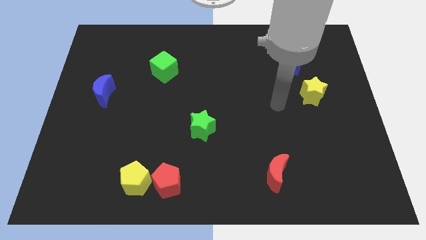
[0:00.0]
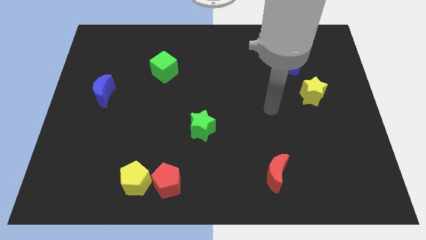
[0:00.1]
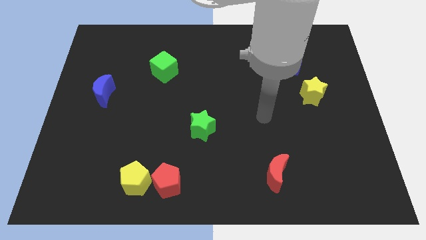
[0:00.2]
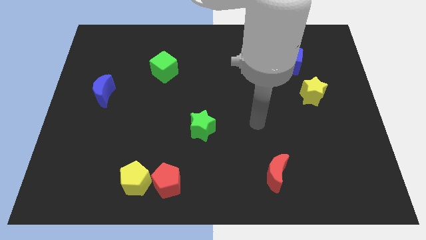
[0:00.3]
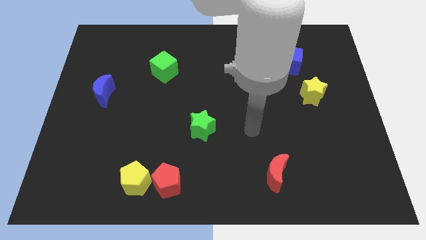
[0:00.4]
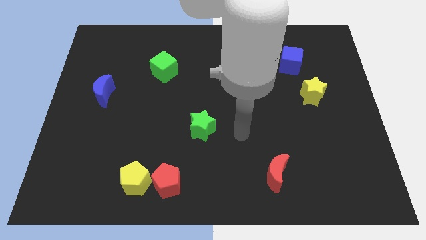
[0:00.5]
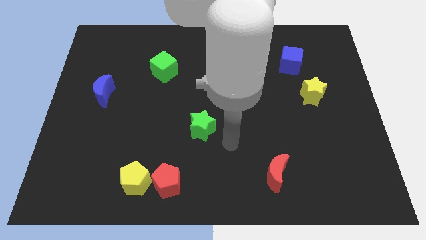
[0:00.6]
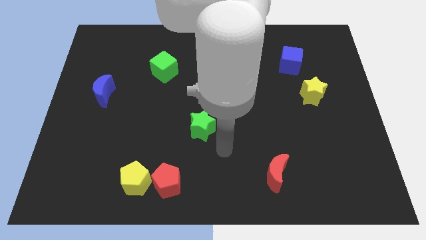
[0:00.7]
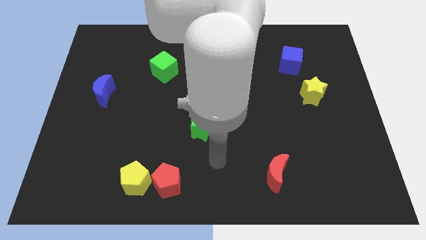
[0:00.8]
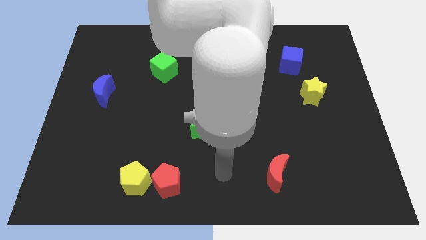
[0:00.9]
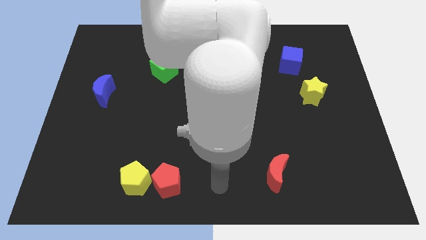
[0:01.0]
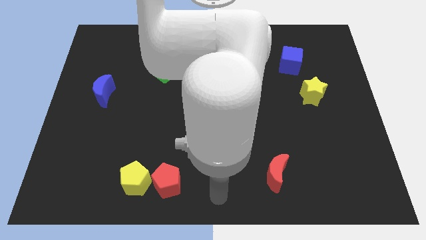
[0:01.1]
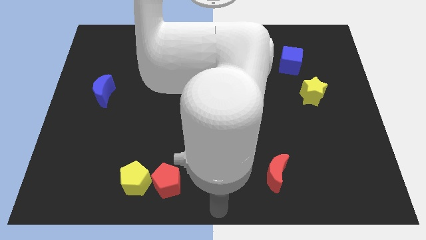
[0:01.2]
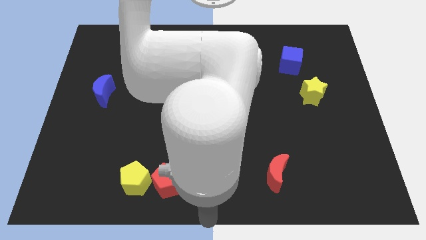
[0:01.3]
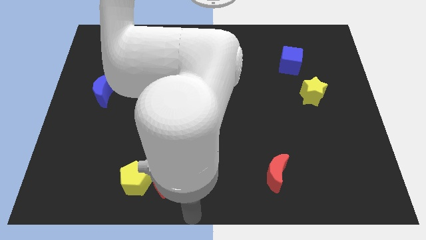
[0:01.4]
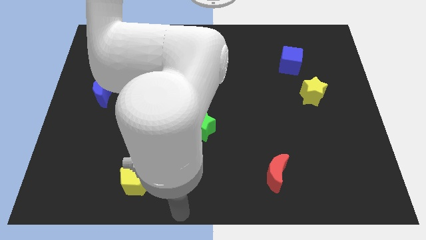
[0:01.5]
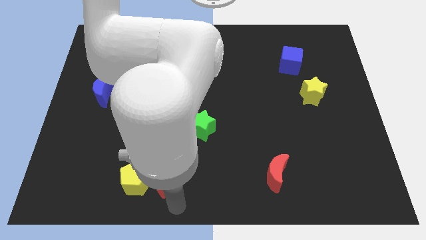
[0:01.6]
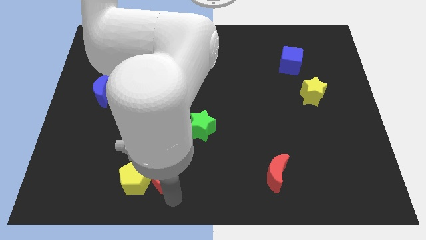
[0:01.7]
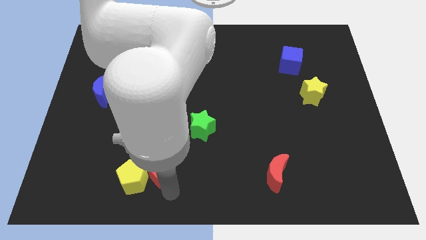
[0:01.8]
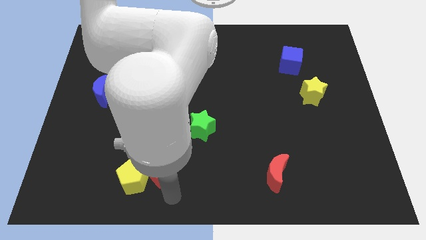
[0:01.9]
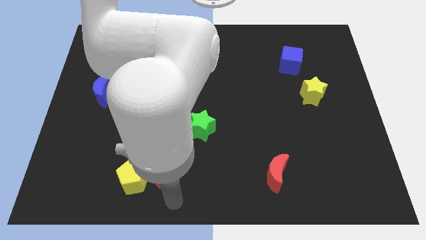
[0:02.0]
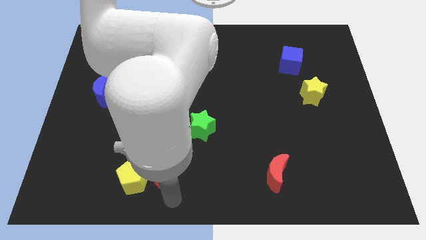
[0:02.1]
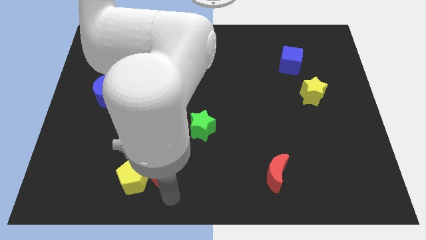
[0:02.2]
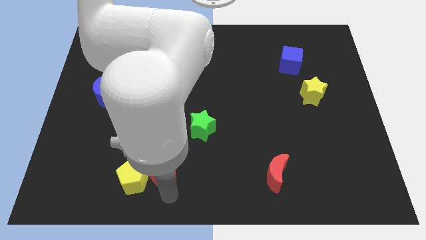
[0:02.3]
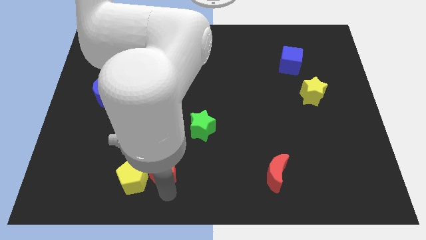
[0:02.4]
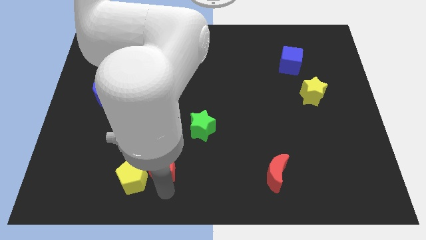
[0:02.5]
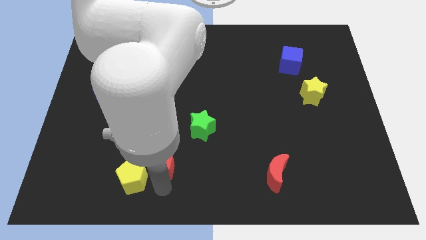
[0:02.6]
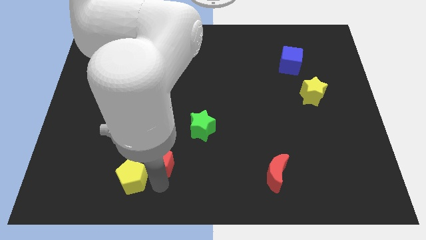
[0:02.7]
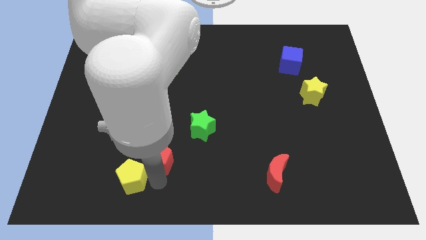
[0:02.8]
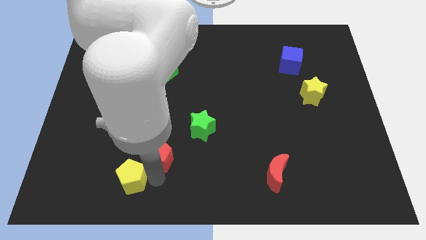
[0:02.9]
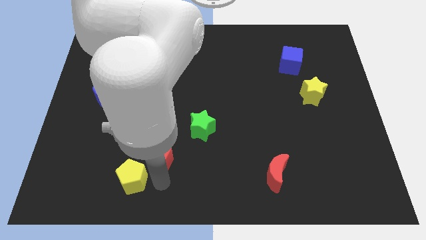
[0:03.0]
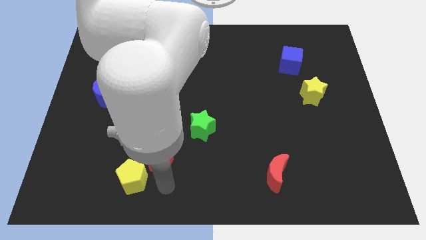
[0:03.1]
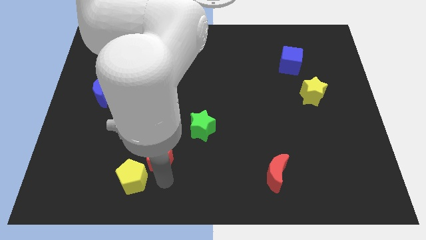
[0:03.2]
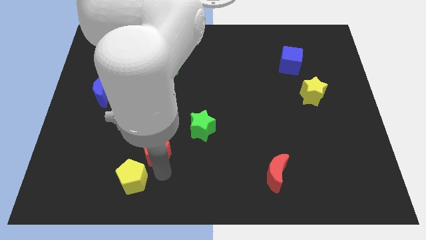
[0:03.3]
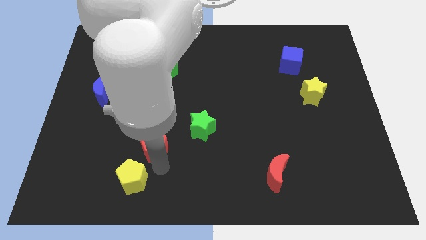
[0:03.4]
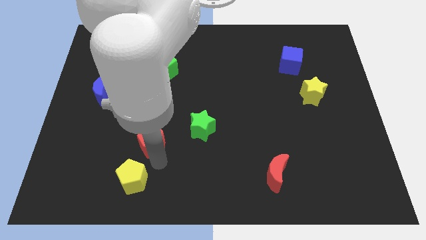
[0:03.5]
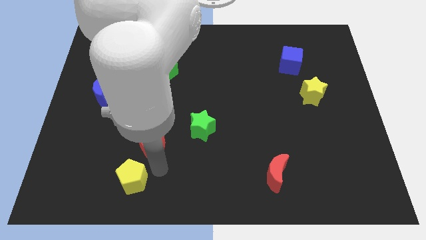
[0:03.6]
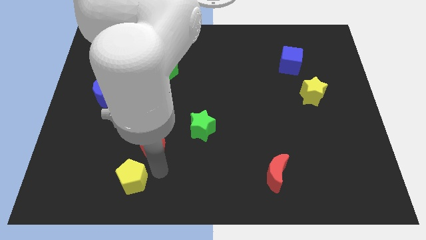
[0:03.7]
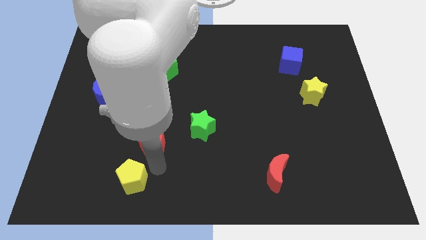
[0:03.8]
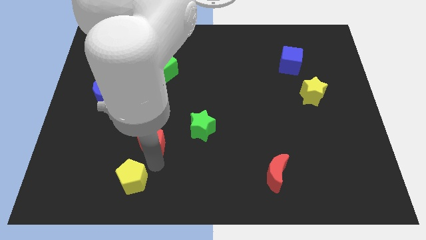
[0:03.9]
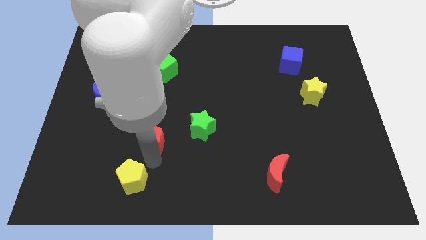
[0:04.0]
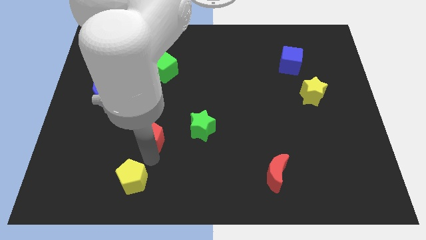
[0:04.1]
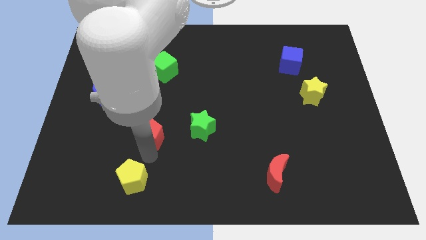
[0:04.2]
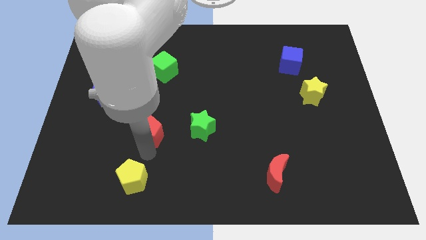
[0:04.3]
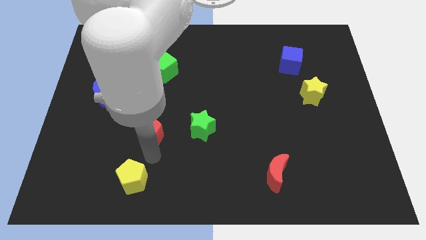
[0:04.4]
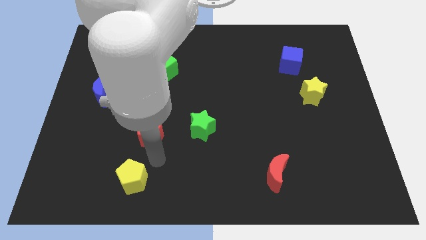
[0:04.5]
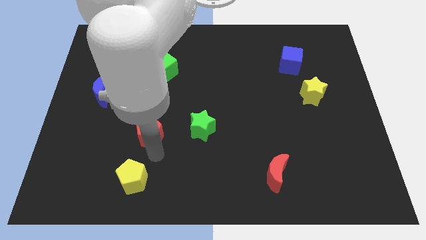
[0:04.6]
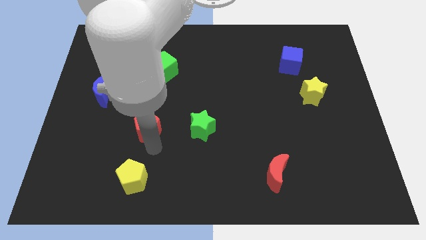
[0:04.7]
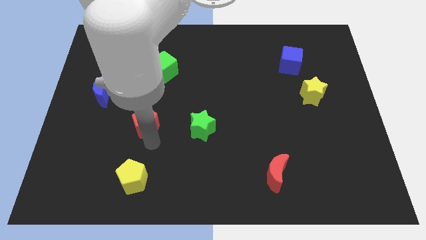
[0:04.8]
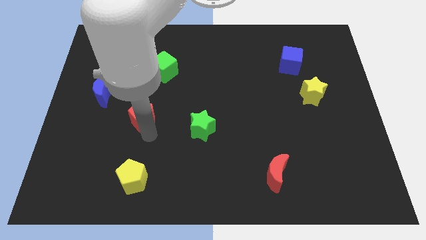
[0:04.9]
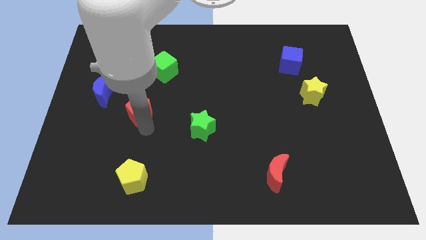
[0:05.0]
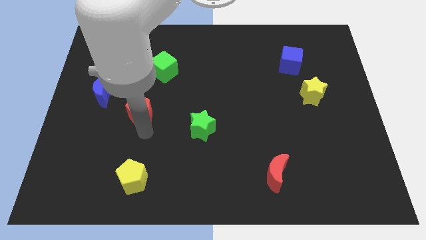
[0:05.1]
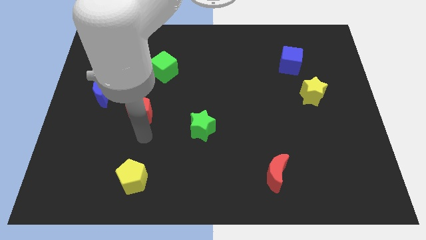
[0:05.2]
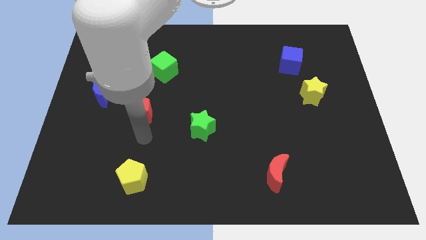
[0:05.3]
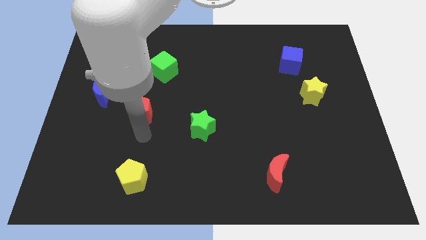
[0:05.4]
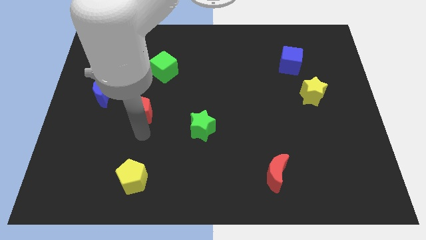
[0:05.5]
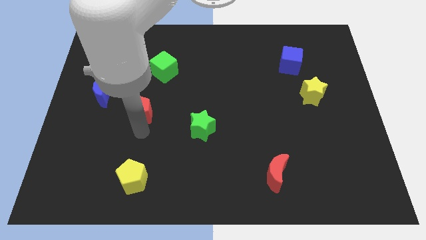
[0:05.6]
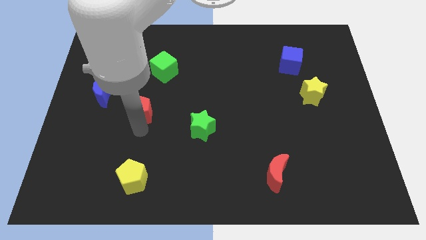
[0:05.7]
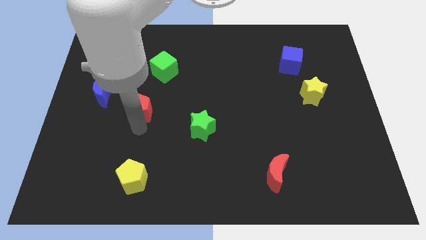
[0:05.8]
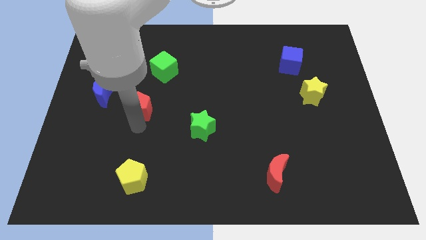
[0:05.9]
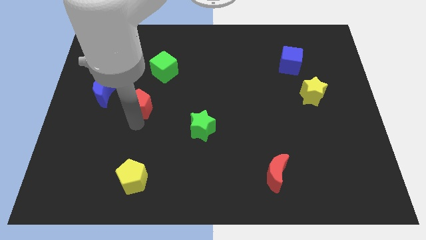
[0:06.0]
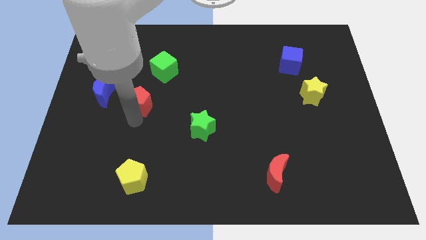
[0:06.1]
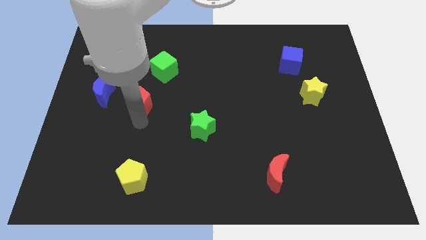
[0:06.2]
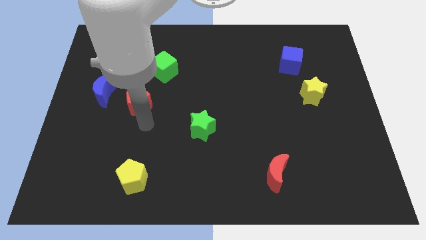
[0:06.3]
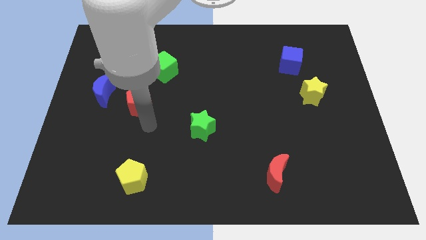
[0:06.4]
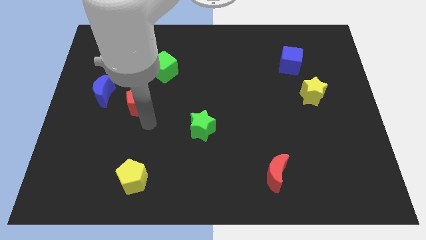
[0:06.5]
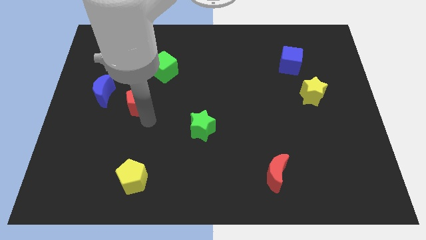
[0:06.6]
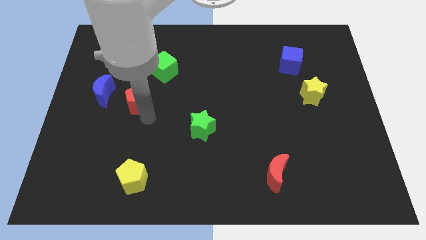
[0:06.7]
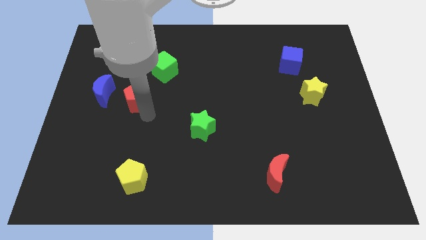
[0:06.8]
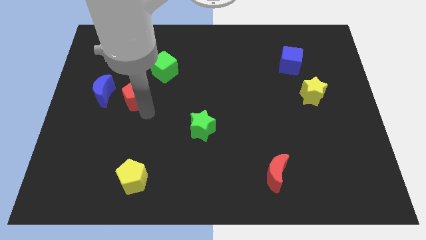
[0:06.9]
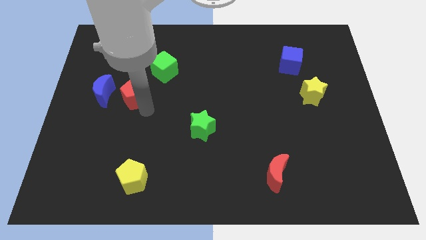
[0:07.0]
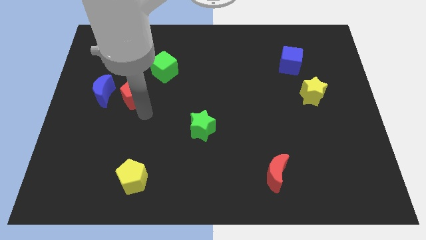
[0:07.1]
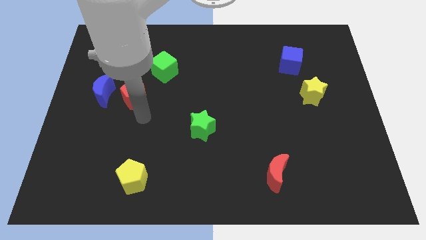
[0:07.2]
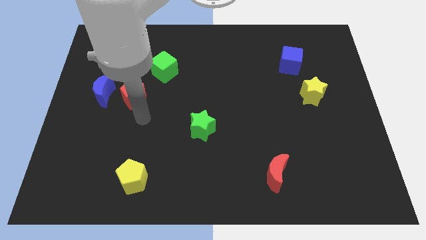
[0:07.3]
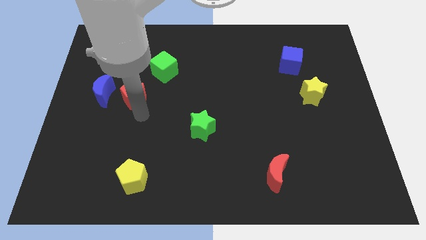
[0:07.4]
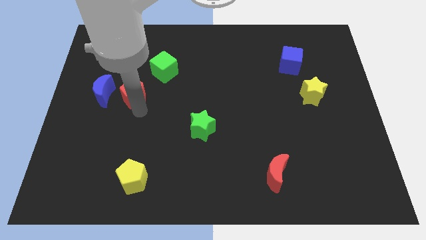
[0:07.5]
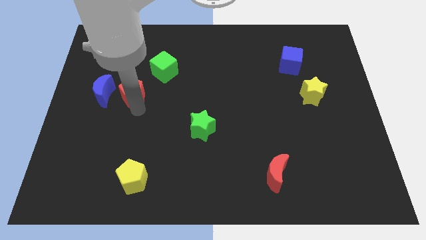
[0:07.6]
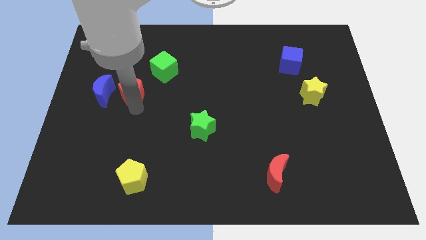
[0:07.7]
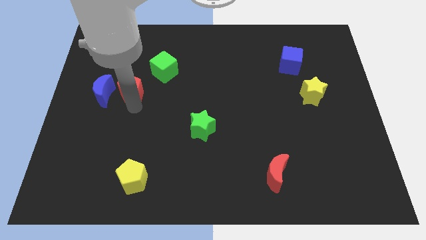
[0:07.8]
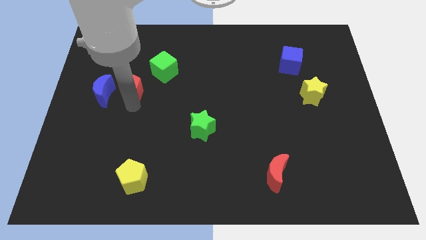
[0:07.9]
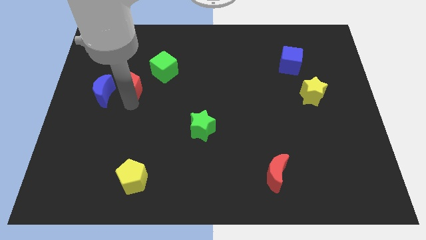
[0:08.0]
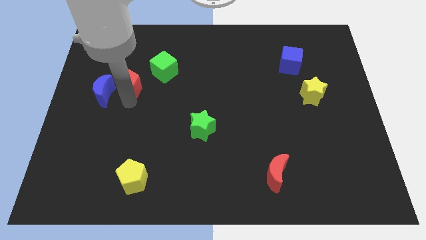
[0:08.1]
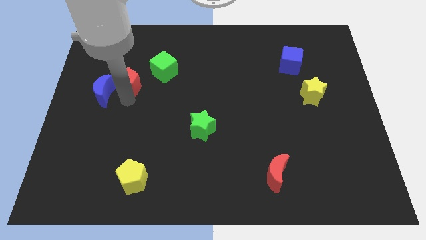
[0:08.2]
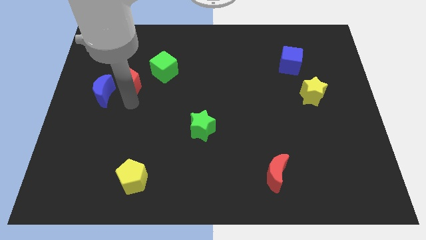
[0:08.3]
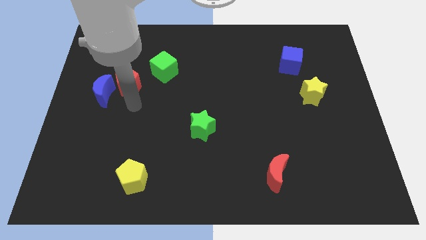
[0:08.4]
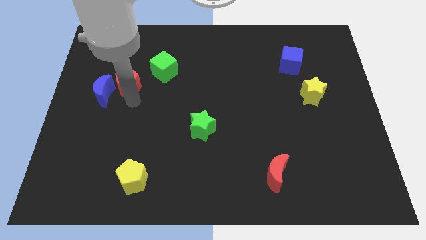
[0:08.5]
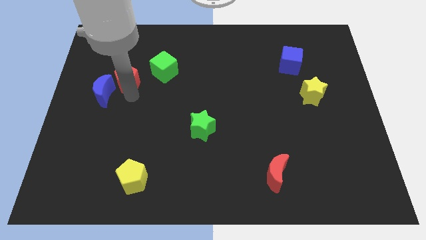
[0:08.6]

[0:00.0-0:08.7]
put the red pentagon just left of the green cube
